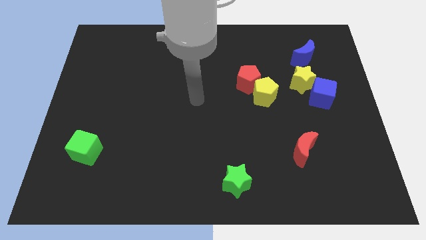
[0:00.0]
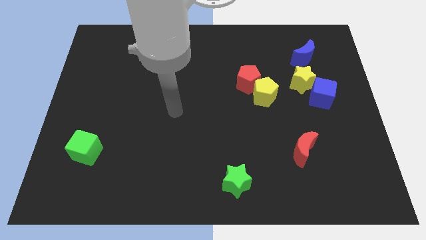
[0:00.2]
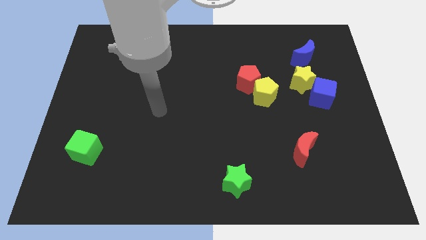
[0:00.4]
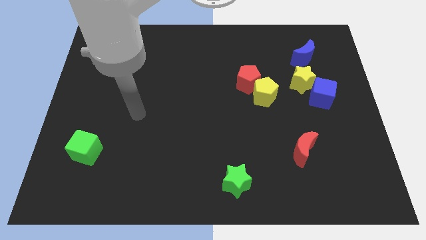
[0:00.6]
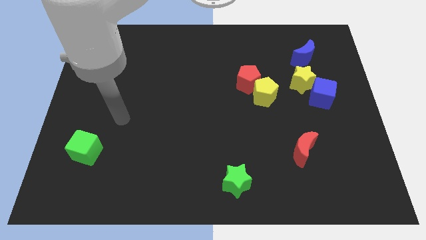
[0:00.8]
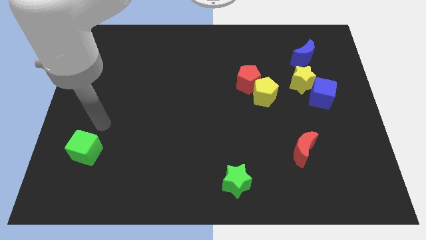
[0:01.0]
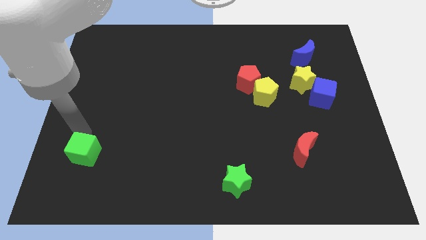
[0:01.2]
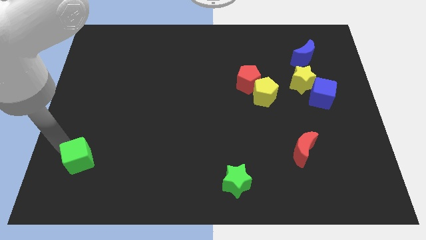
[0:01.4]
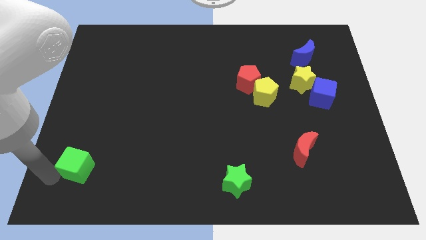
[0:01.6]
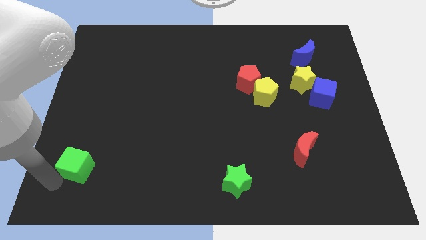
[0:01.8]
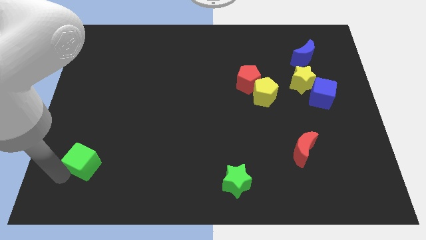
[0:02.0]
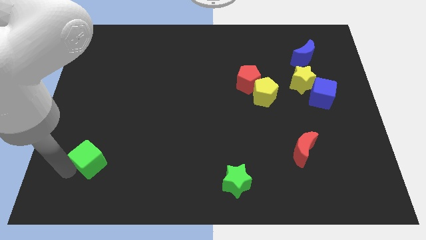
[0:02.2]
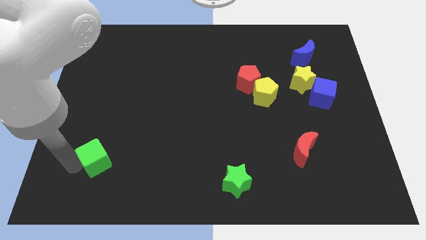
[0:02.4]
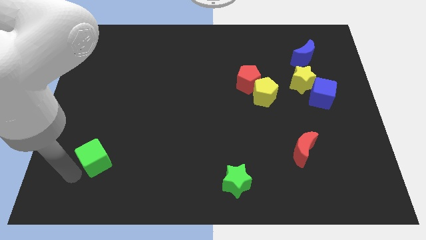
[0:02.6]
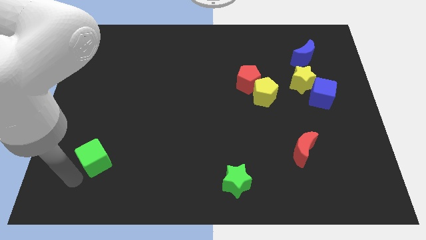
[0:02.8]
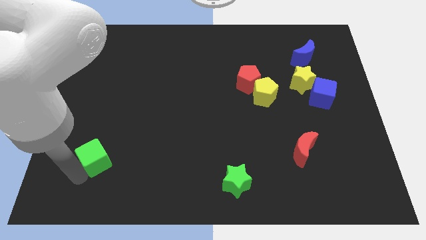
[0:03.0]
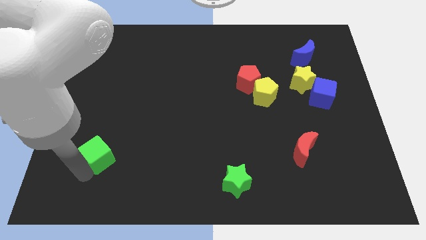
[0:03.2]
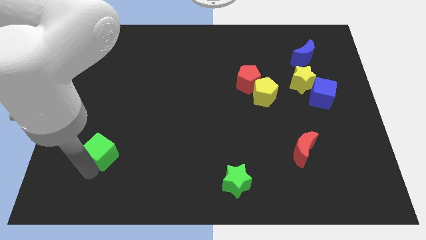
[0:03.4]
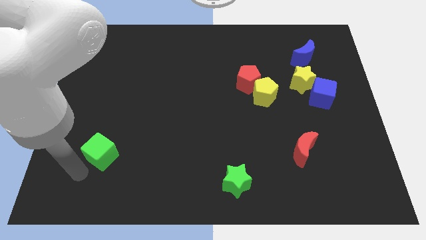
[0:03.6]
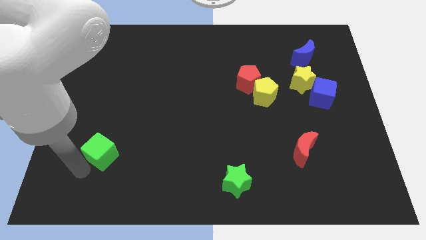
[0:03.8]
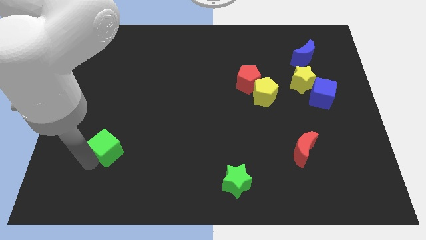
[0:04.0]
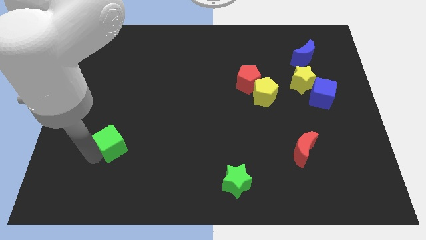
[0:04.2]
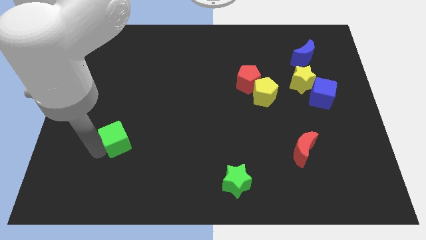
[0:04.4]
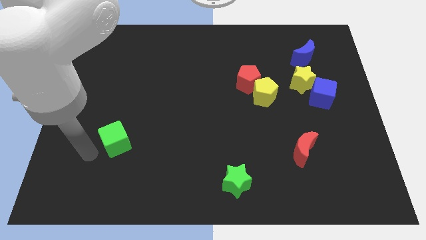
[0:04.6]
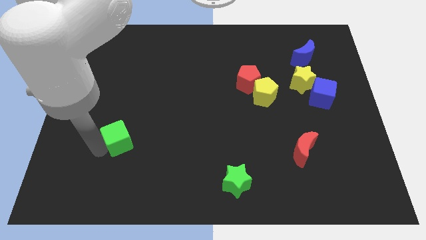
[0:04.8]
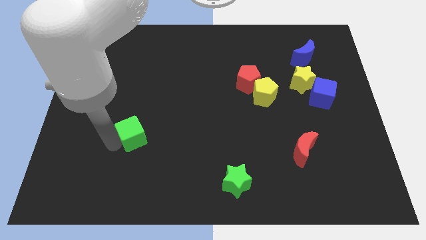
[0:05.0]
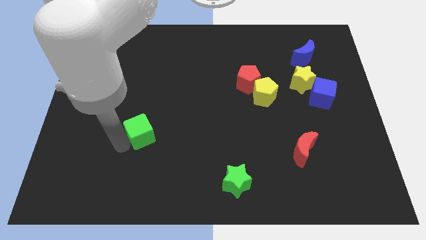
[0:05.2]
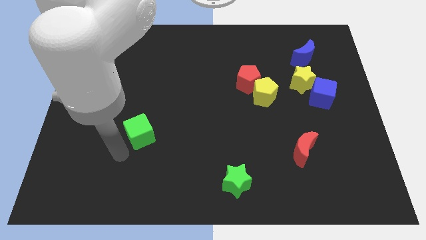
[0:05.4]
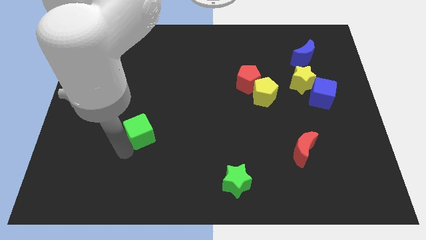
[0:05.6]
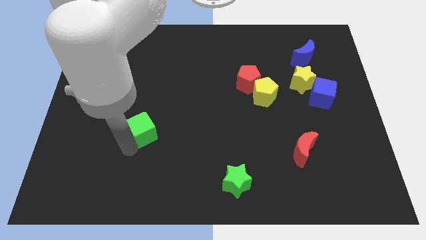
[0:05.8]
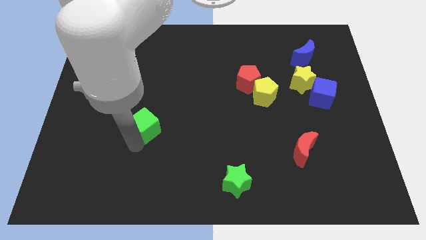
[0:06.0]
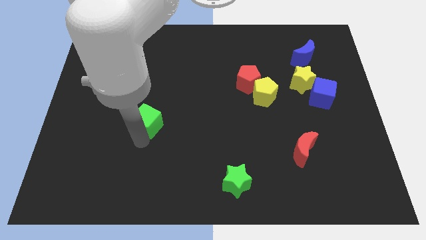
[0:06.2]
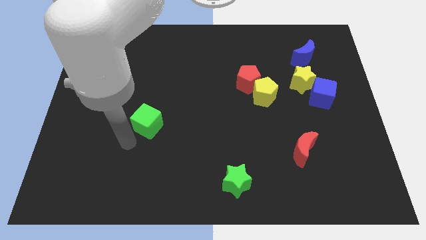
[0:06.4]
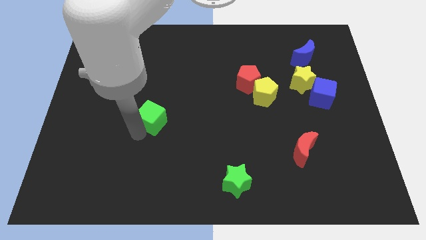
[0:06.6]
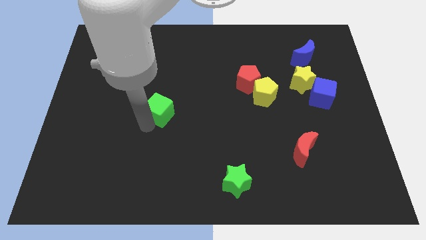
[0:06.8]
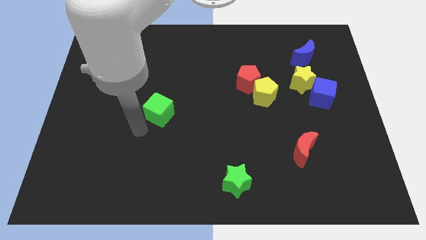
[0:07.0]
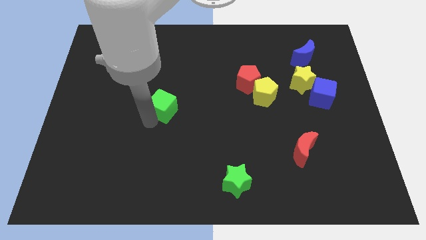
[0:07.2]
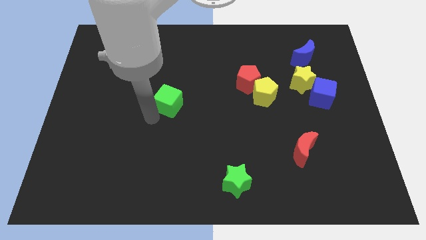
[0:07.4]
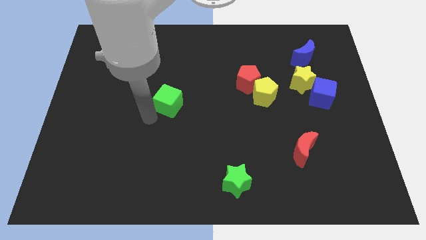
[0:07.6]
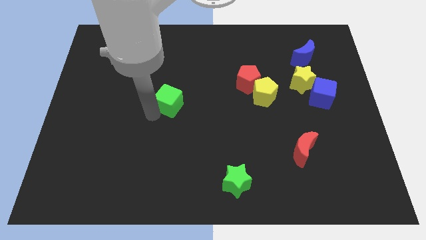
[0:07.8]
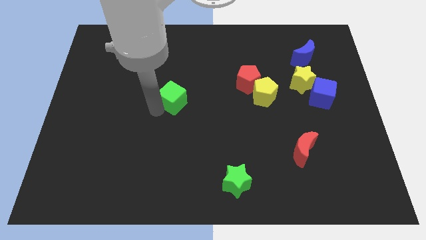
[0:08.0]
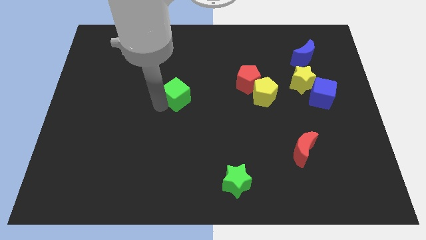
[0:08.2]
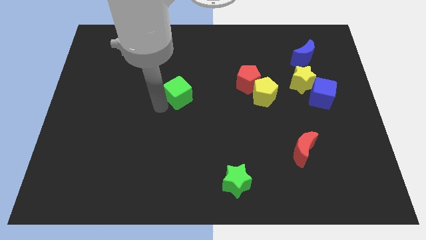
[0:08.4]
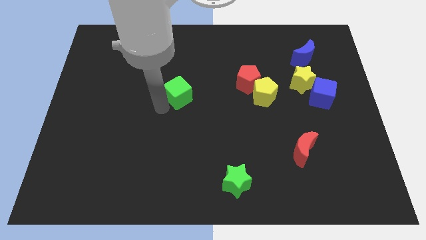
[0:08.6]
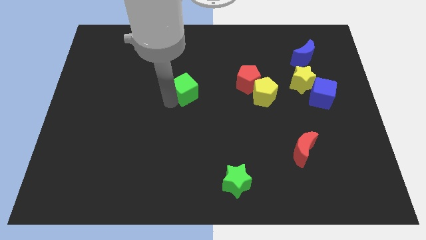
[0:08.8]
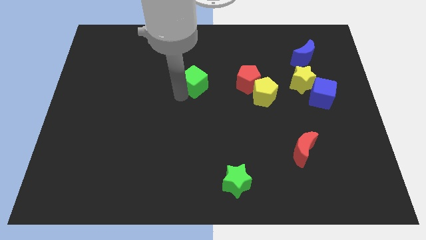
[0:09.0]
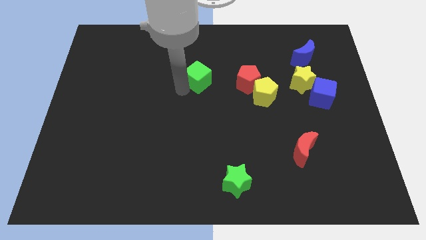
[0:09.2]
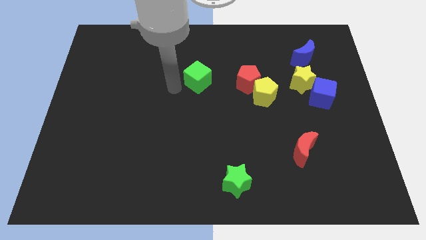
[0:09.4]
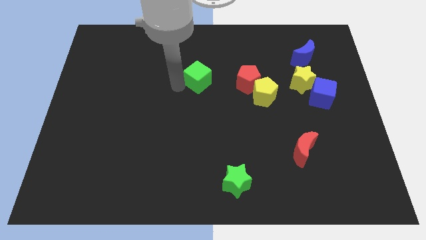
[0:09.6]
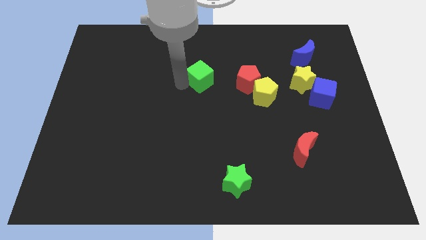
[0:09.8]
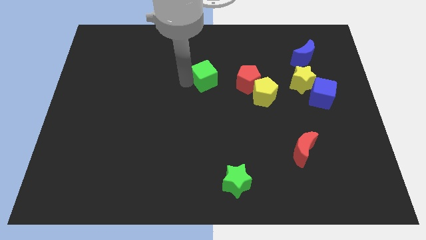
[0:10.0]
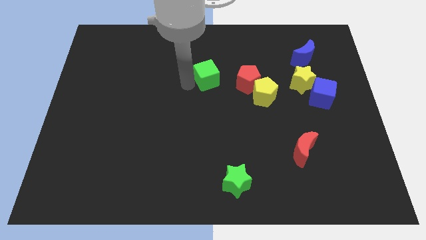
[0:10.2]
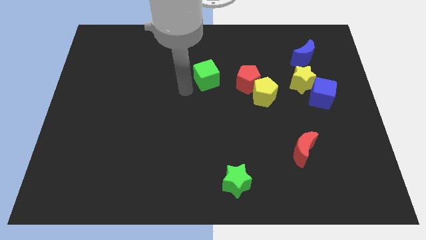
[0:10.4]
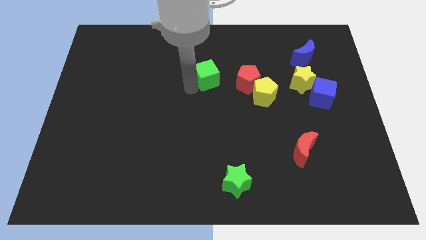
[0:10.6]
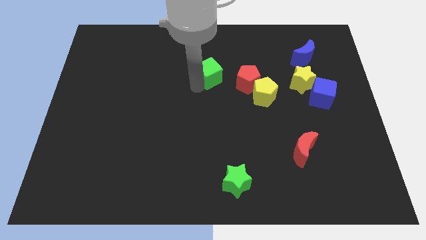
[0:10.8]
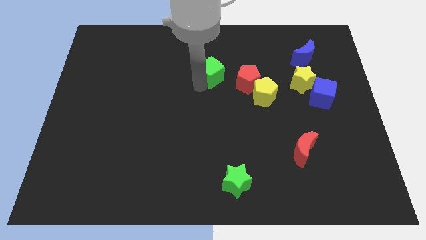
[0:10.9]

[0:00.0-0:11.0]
slide the green cube to the top left of the red pentagon

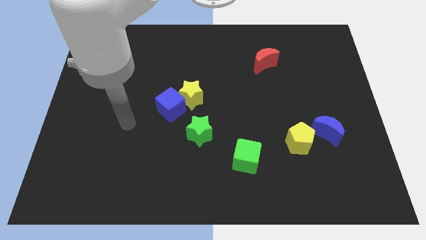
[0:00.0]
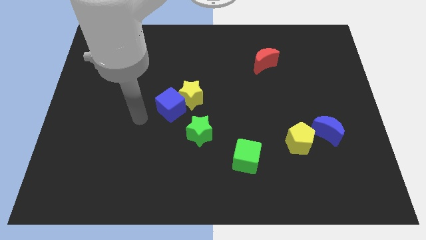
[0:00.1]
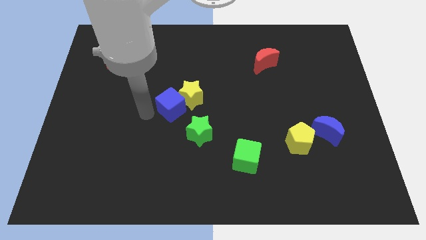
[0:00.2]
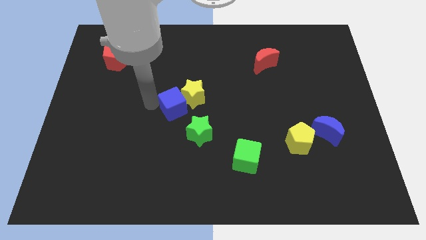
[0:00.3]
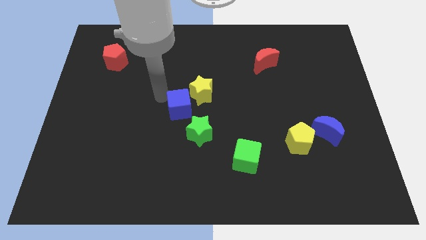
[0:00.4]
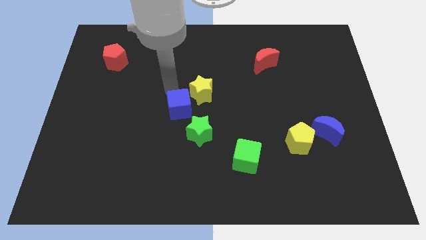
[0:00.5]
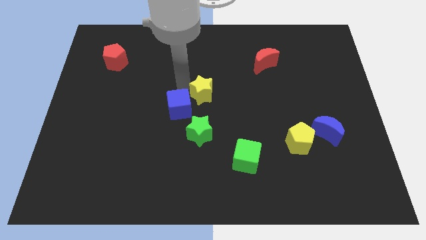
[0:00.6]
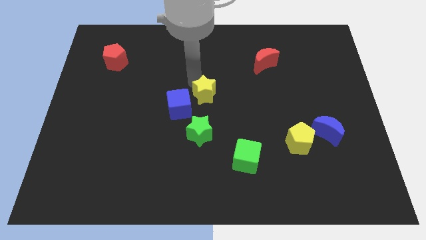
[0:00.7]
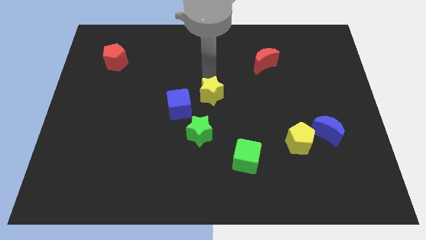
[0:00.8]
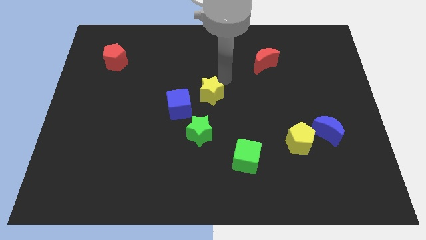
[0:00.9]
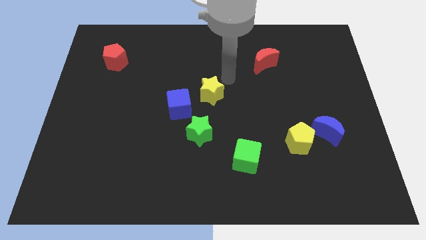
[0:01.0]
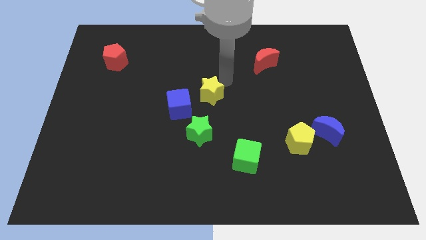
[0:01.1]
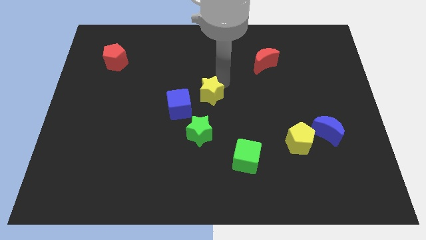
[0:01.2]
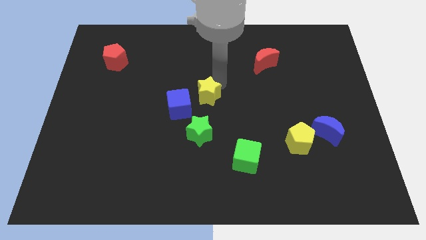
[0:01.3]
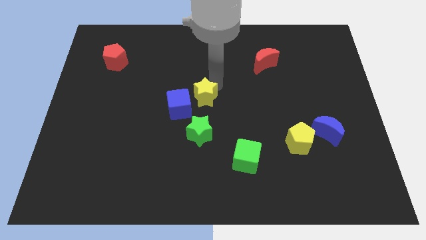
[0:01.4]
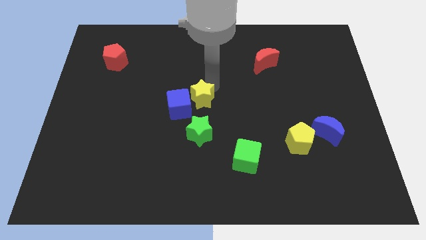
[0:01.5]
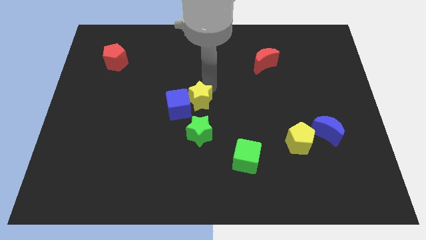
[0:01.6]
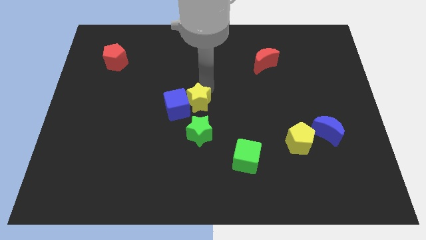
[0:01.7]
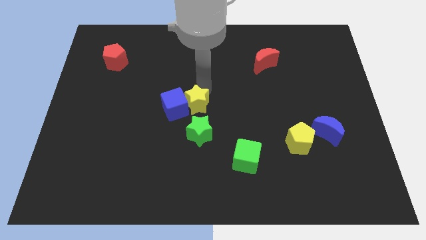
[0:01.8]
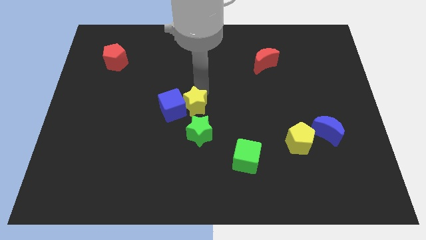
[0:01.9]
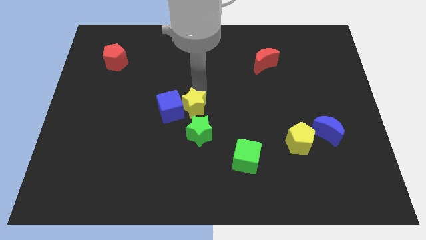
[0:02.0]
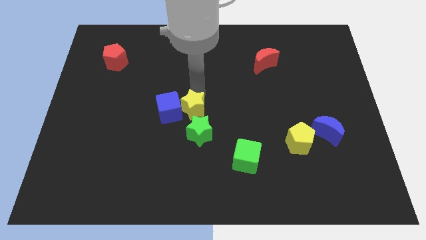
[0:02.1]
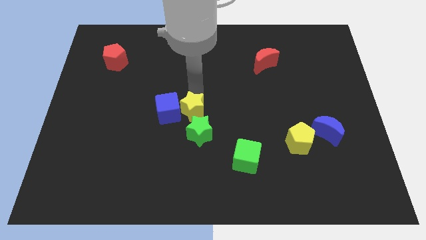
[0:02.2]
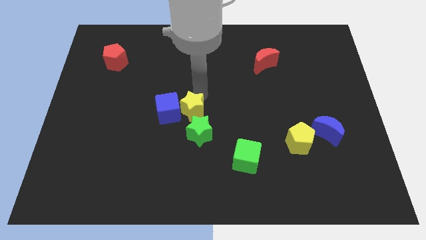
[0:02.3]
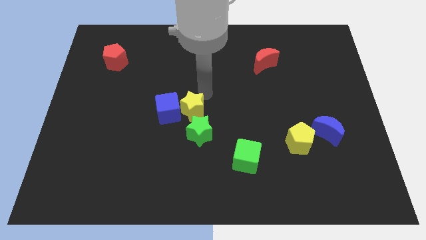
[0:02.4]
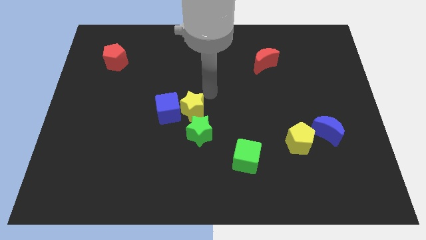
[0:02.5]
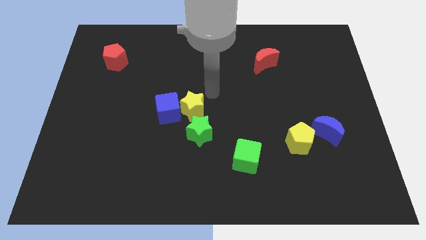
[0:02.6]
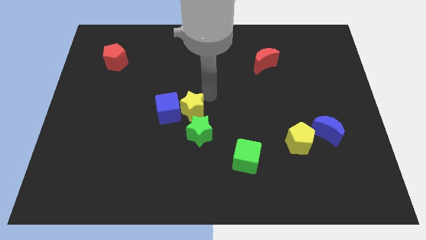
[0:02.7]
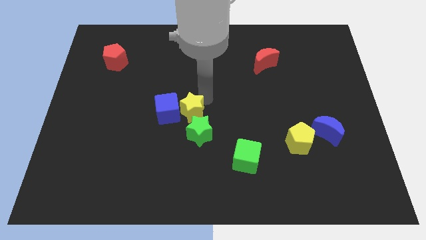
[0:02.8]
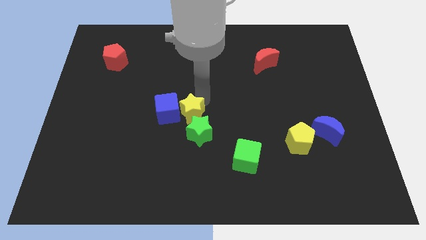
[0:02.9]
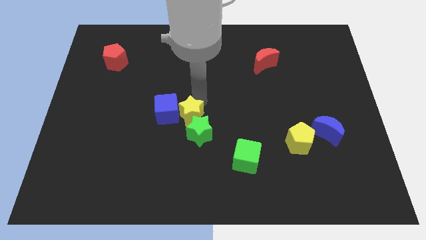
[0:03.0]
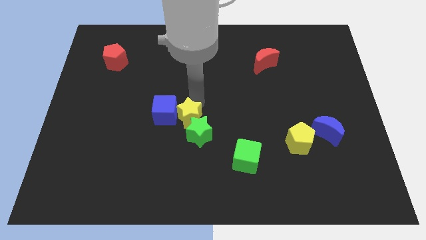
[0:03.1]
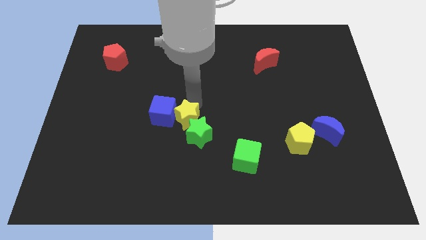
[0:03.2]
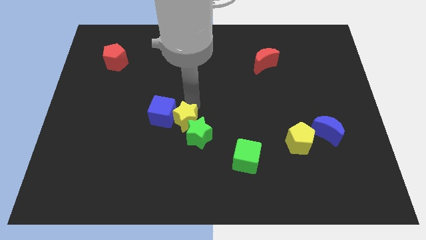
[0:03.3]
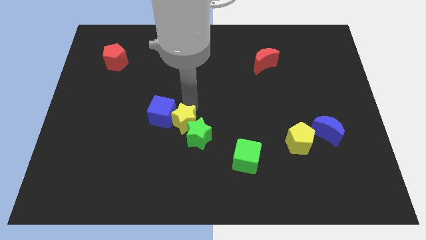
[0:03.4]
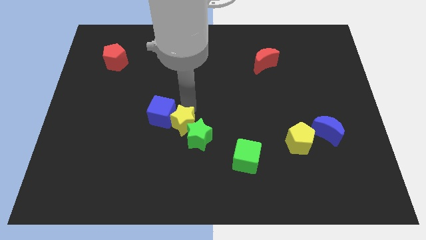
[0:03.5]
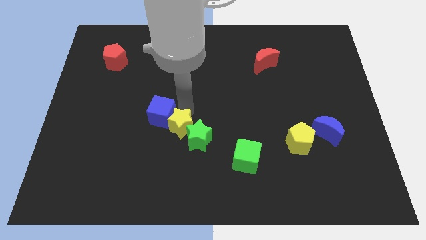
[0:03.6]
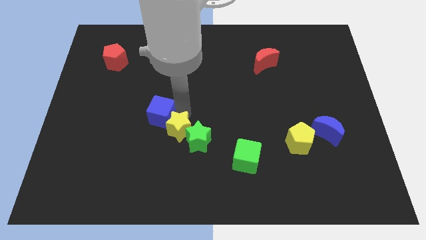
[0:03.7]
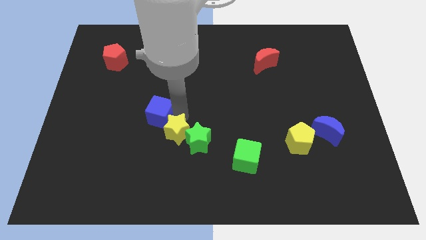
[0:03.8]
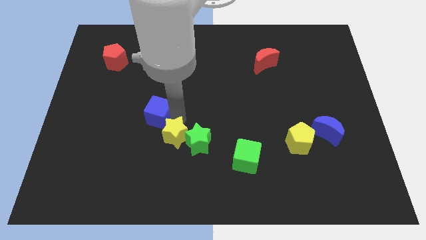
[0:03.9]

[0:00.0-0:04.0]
push the yellow star diagonally down and to the left of the green star
